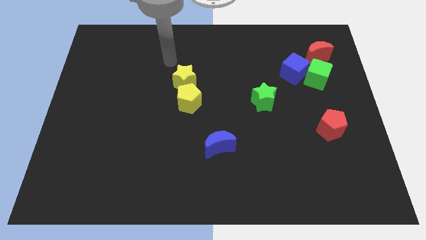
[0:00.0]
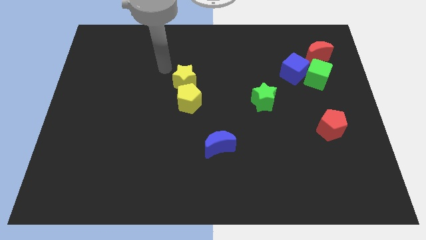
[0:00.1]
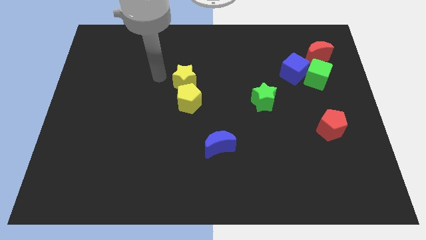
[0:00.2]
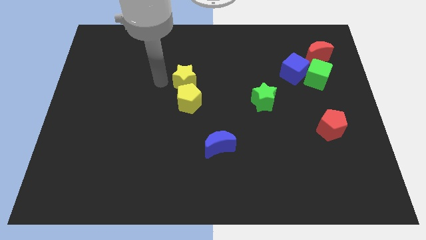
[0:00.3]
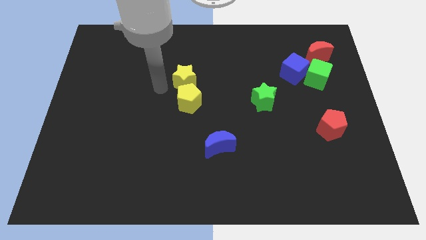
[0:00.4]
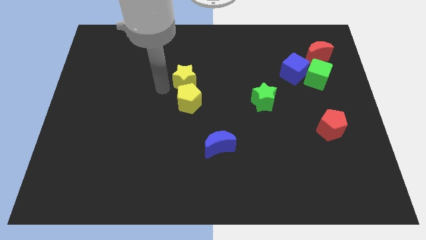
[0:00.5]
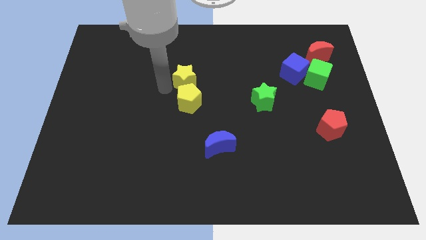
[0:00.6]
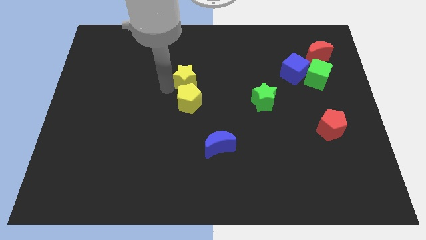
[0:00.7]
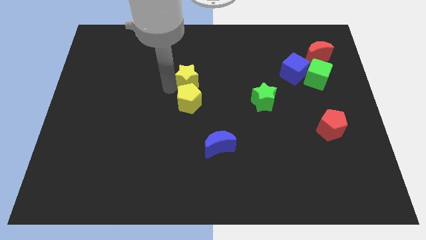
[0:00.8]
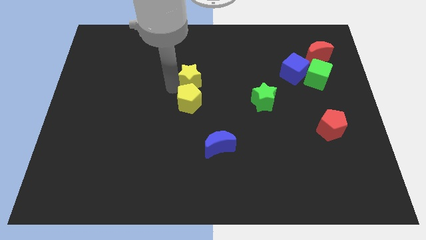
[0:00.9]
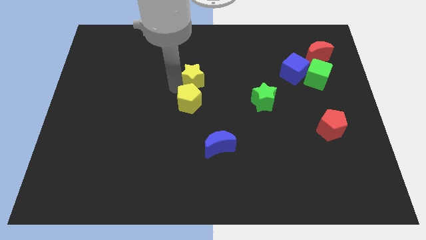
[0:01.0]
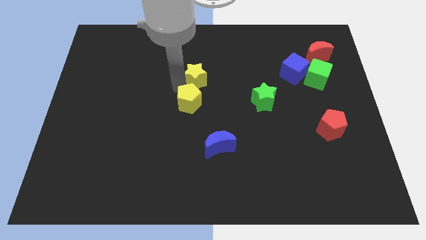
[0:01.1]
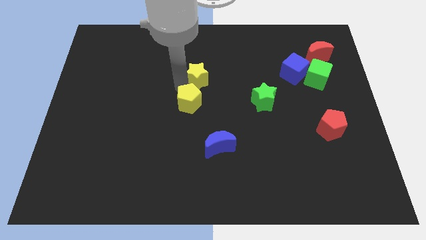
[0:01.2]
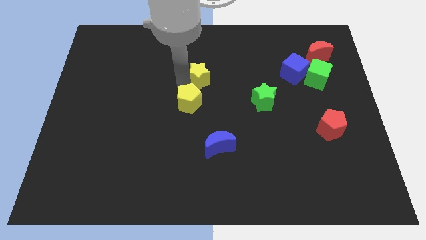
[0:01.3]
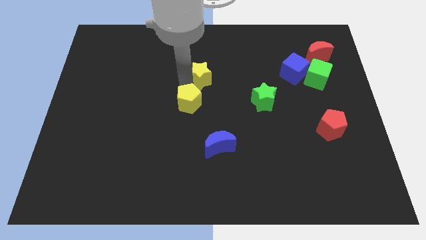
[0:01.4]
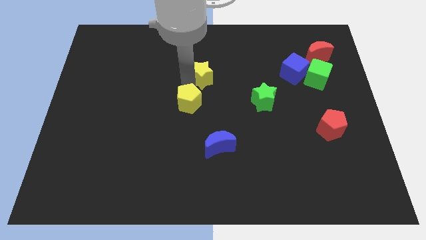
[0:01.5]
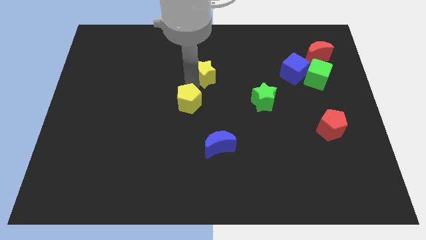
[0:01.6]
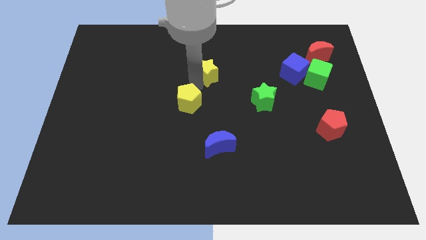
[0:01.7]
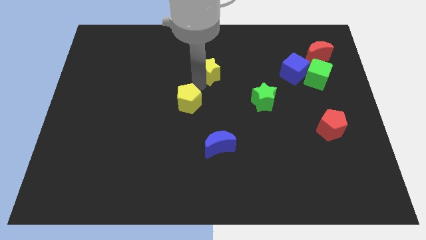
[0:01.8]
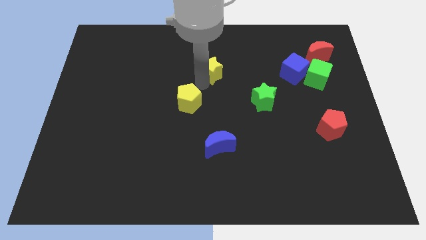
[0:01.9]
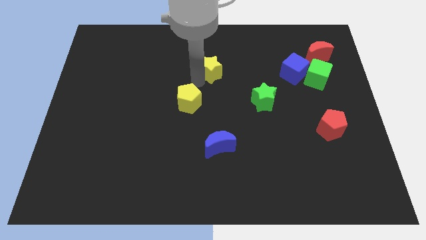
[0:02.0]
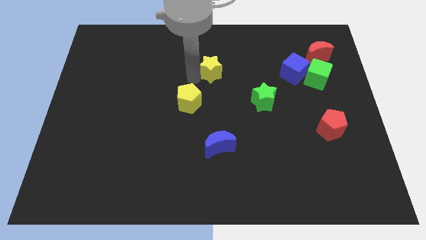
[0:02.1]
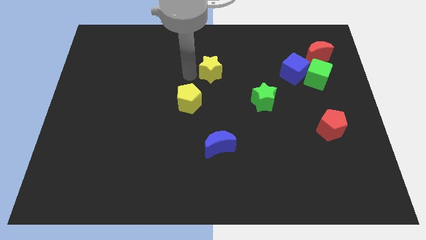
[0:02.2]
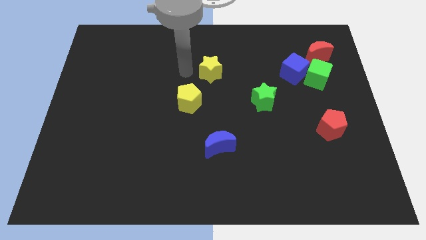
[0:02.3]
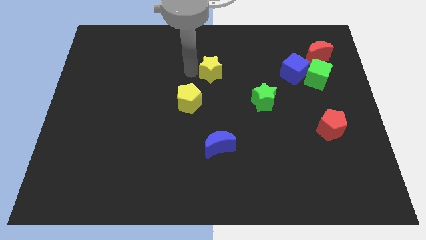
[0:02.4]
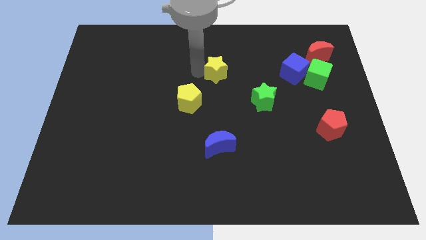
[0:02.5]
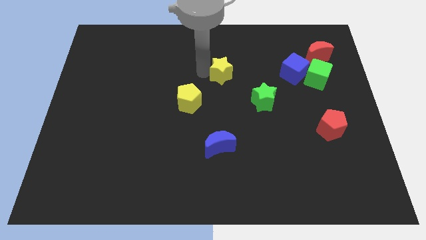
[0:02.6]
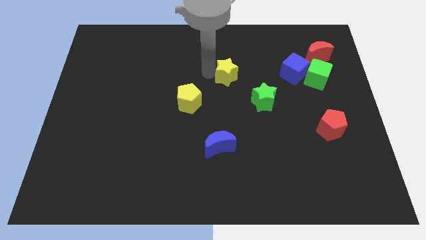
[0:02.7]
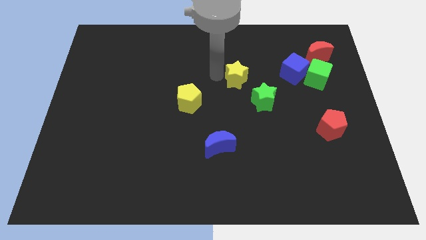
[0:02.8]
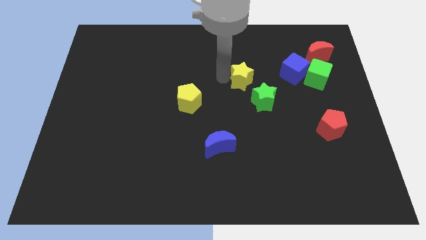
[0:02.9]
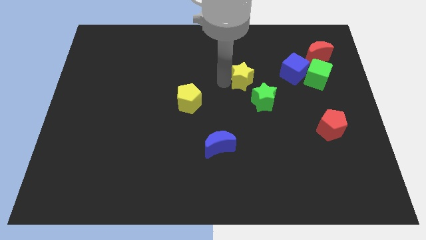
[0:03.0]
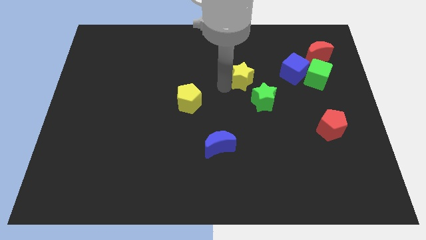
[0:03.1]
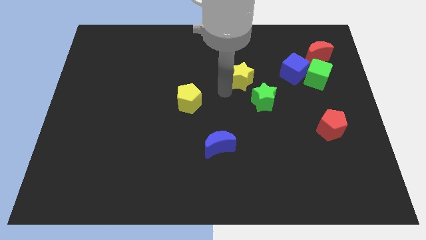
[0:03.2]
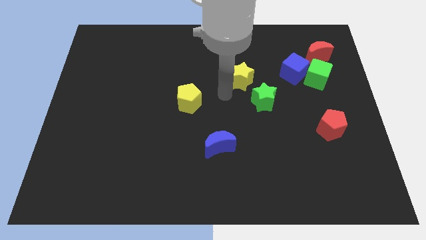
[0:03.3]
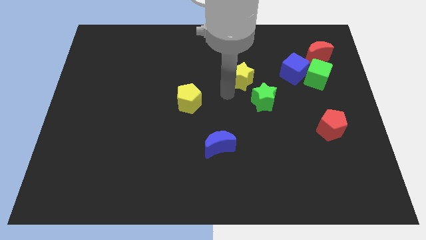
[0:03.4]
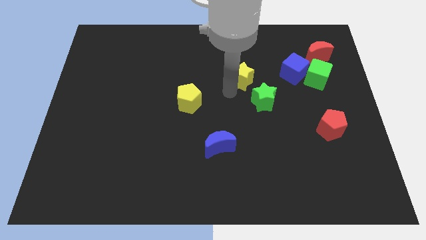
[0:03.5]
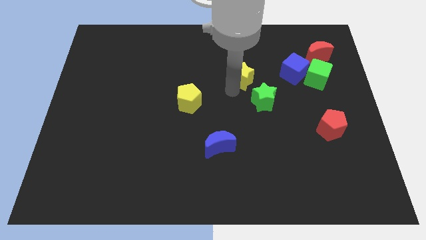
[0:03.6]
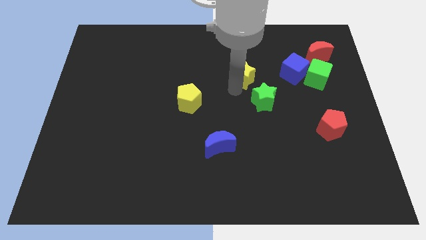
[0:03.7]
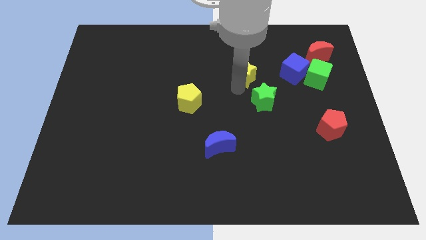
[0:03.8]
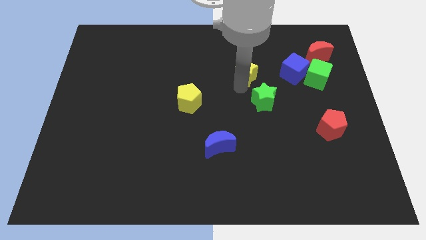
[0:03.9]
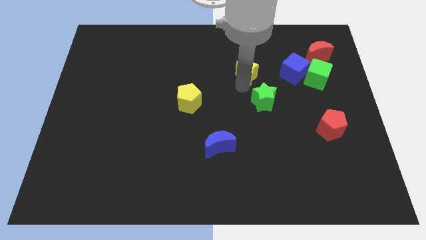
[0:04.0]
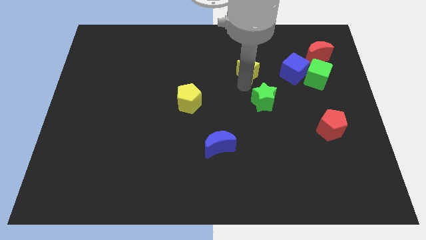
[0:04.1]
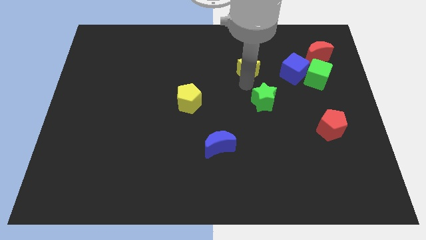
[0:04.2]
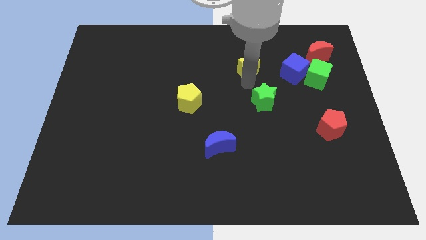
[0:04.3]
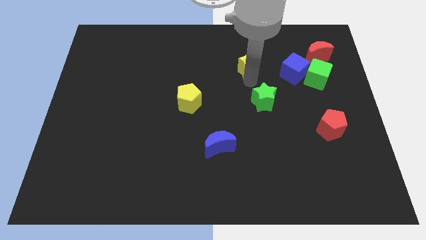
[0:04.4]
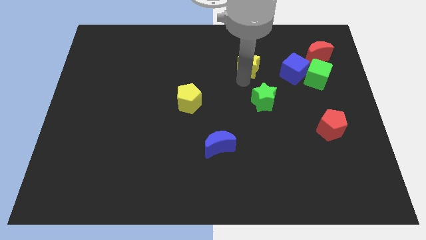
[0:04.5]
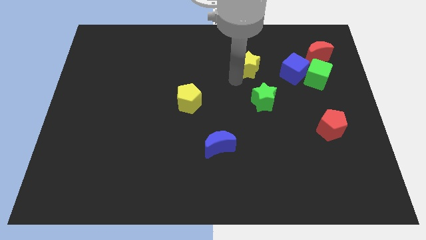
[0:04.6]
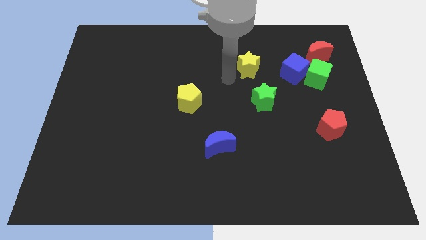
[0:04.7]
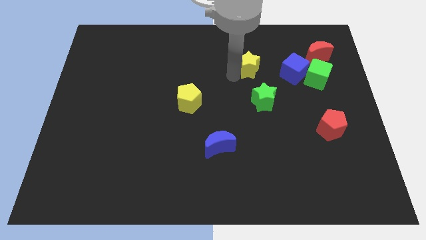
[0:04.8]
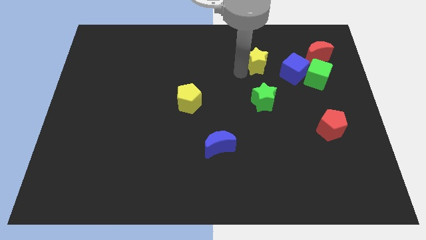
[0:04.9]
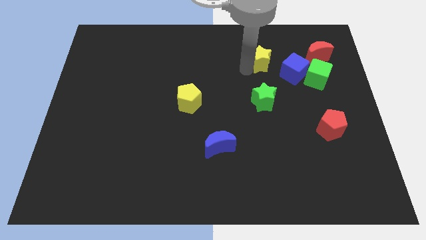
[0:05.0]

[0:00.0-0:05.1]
slide the yellow star to the left side of the red moon

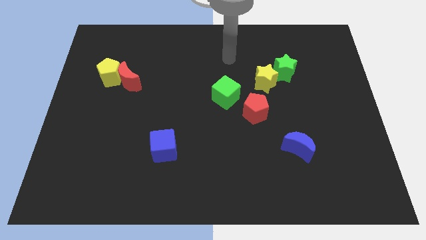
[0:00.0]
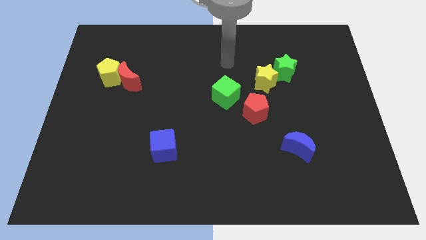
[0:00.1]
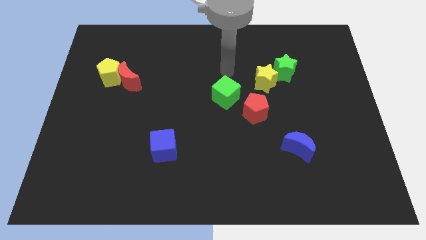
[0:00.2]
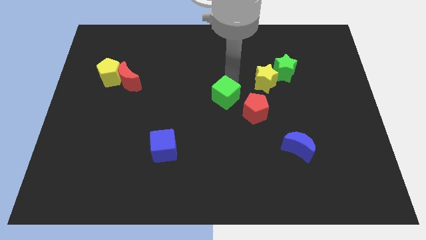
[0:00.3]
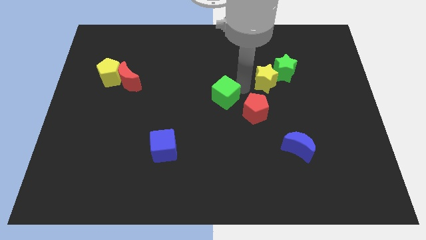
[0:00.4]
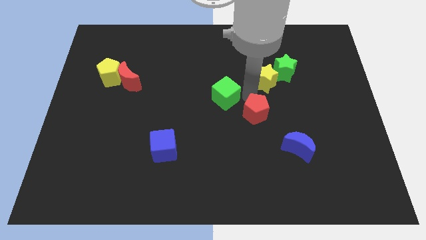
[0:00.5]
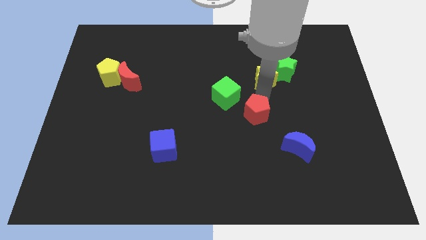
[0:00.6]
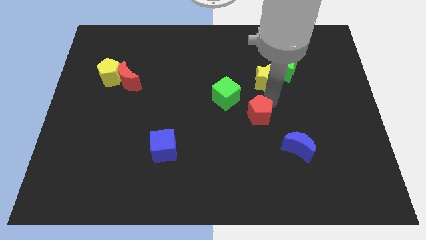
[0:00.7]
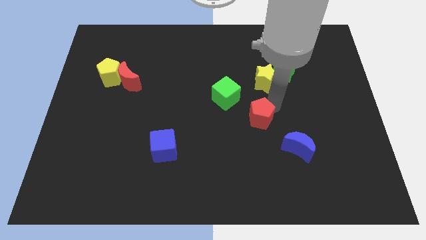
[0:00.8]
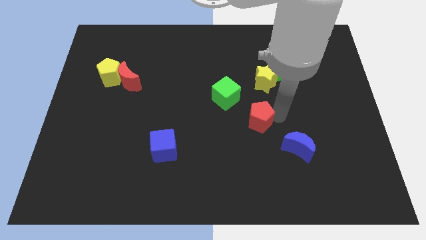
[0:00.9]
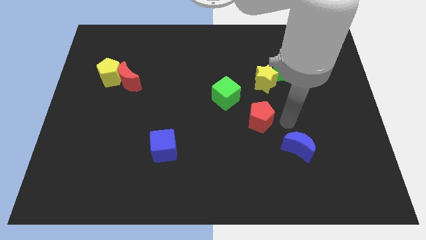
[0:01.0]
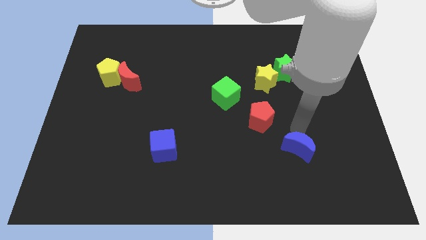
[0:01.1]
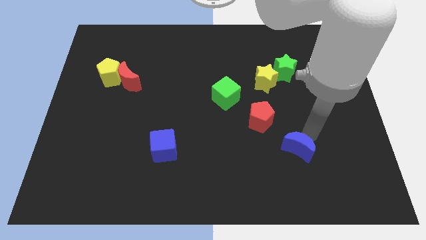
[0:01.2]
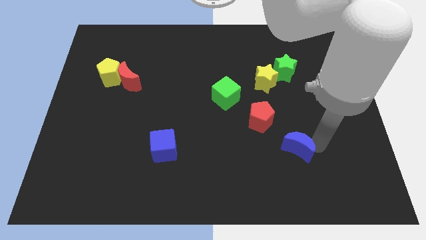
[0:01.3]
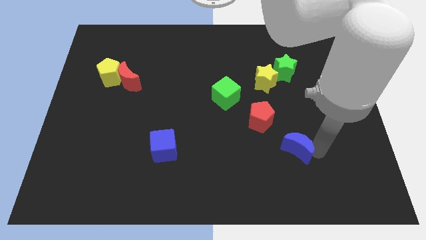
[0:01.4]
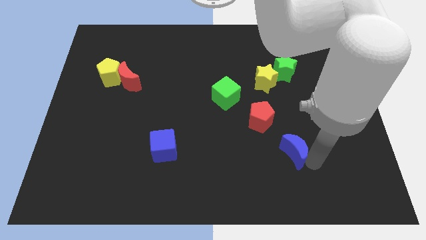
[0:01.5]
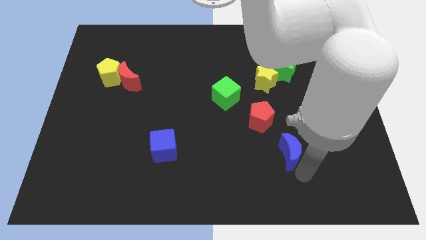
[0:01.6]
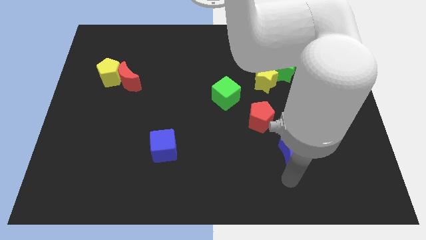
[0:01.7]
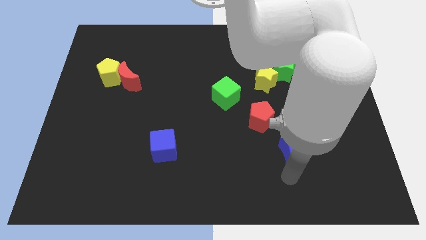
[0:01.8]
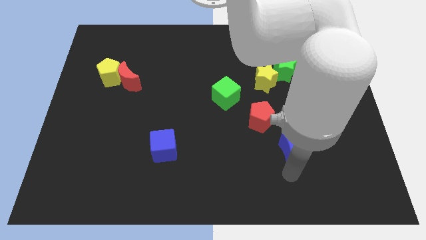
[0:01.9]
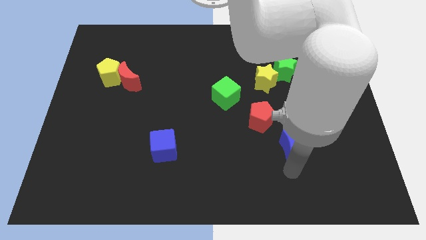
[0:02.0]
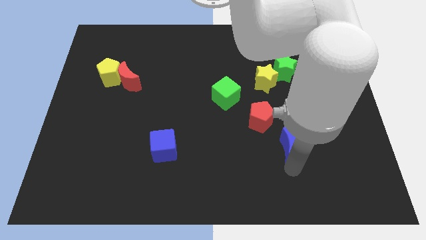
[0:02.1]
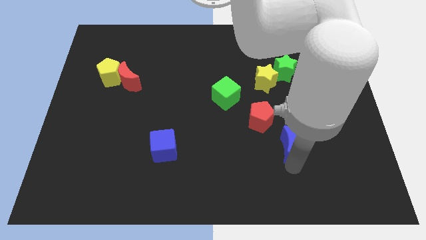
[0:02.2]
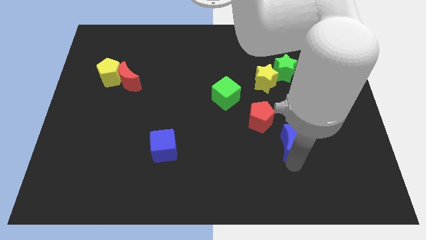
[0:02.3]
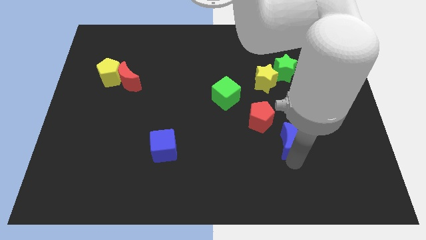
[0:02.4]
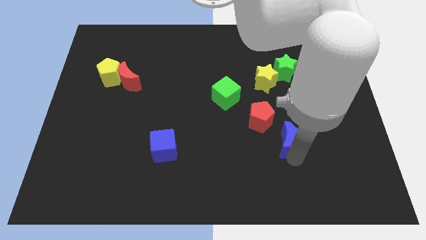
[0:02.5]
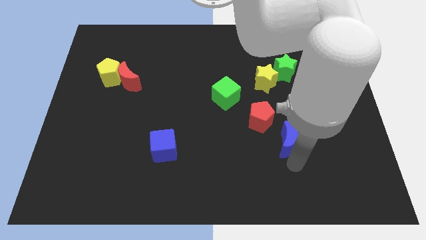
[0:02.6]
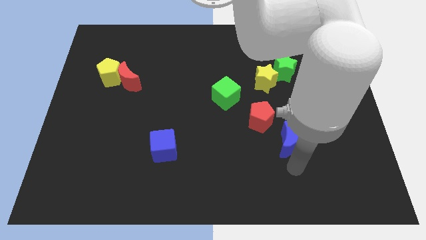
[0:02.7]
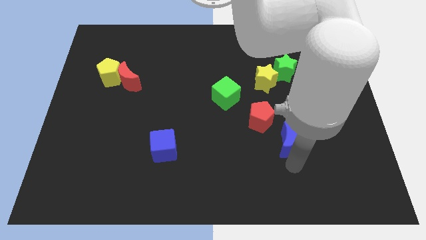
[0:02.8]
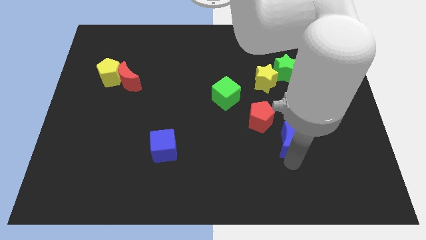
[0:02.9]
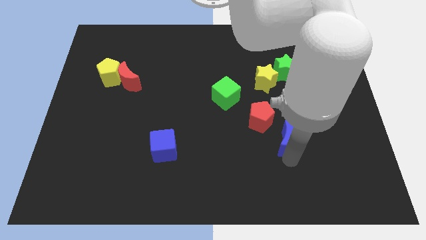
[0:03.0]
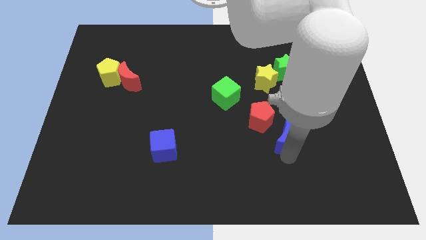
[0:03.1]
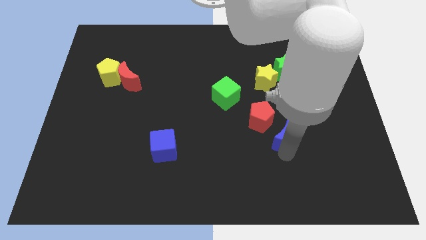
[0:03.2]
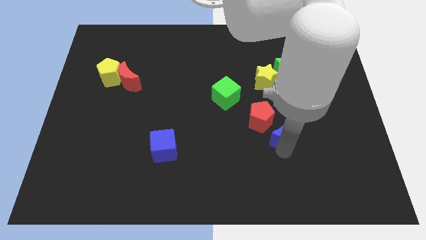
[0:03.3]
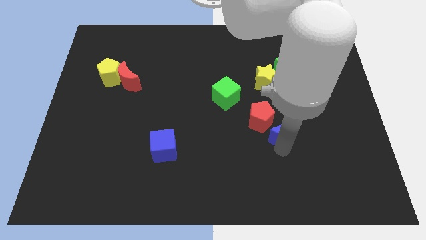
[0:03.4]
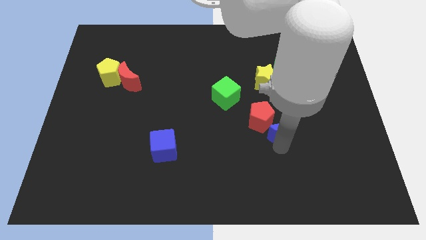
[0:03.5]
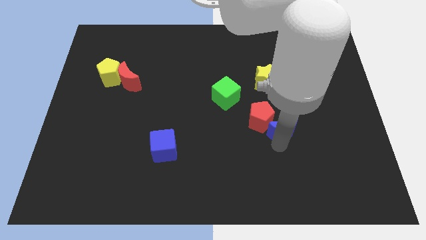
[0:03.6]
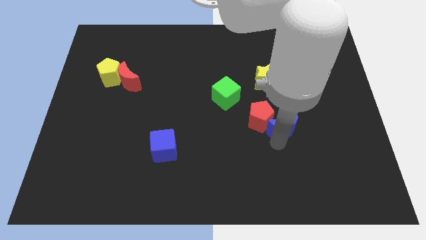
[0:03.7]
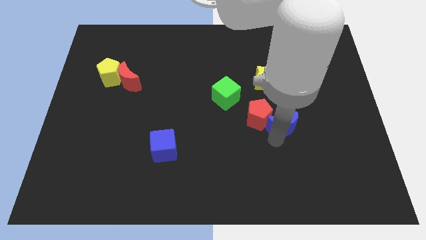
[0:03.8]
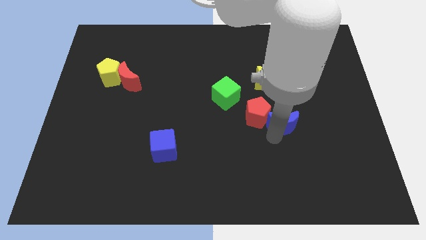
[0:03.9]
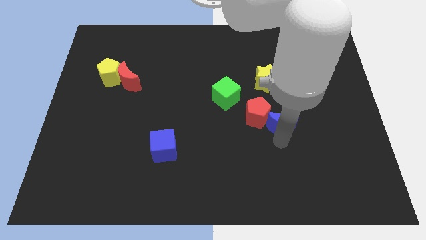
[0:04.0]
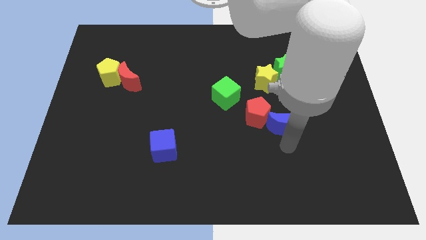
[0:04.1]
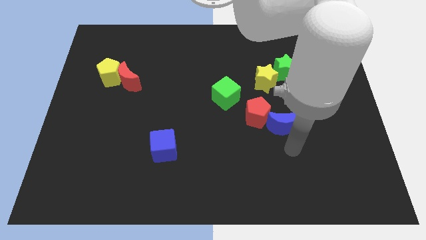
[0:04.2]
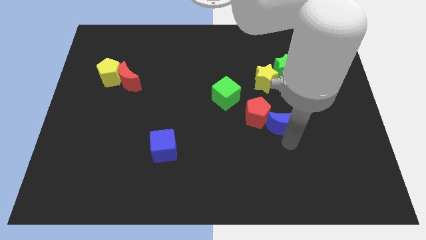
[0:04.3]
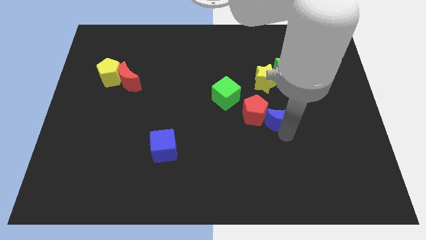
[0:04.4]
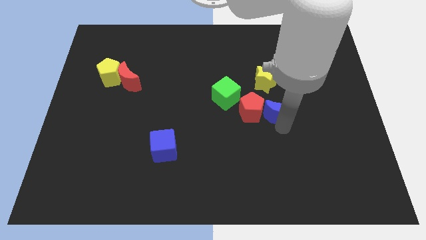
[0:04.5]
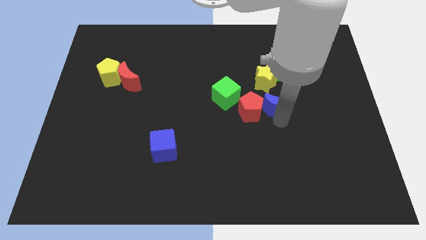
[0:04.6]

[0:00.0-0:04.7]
slide the blue moon just right of the green cube
